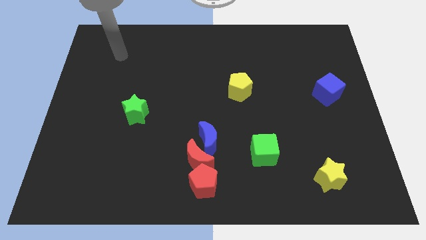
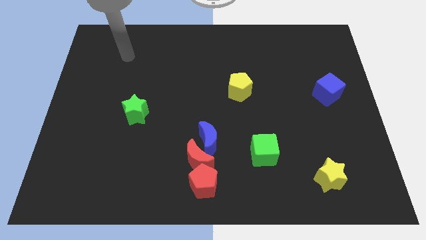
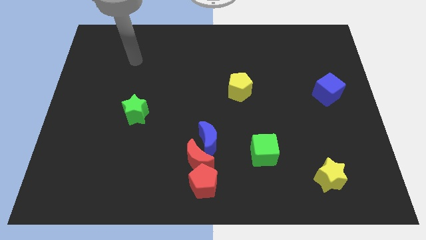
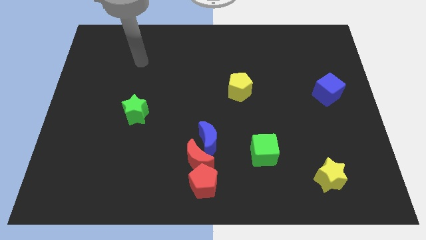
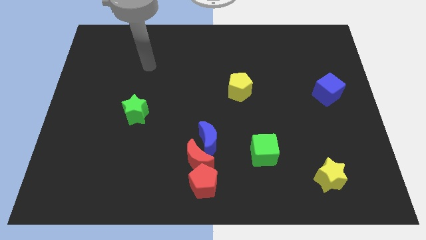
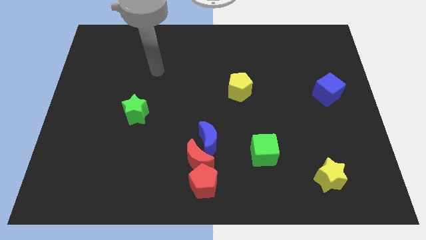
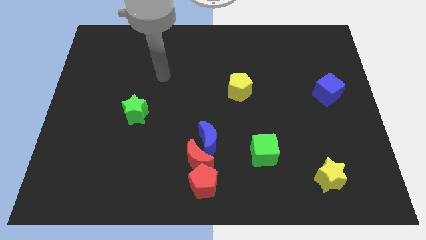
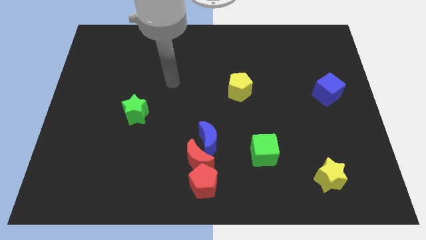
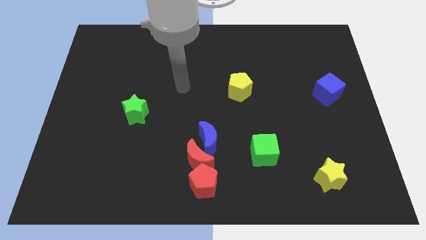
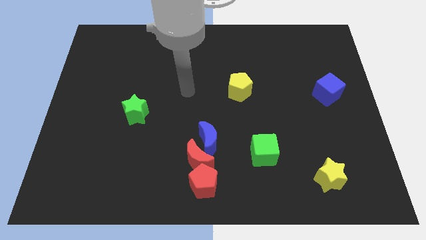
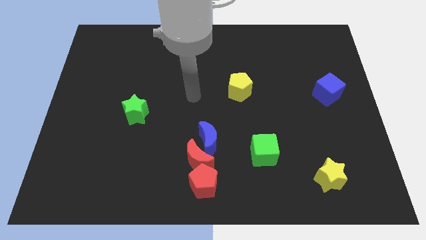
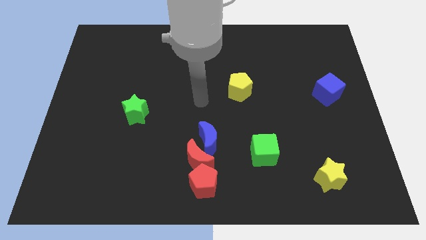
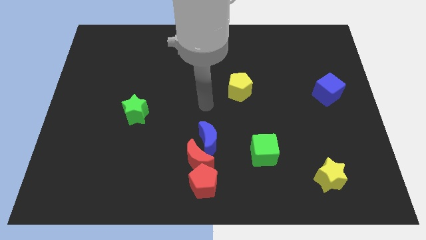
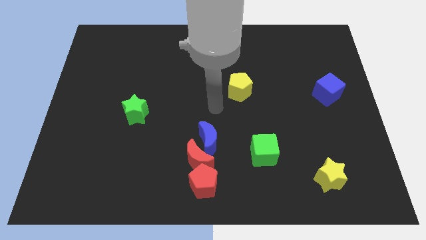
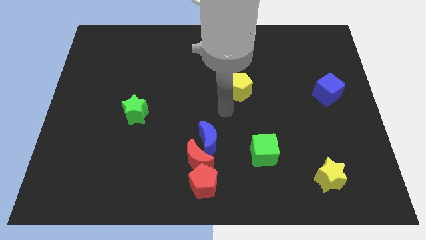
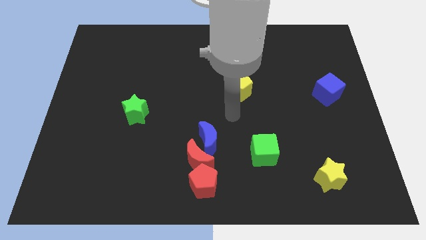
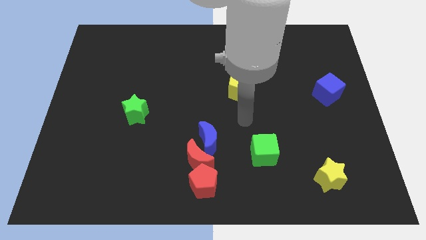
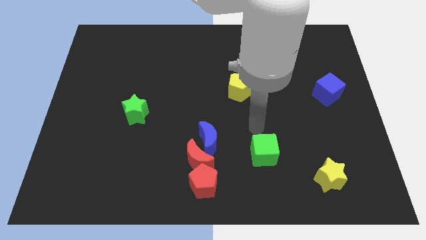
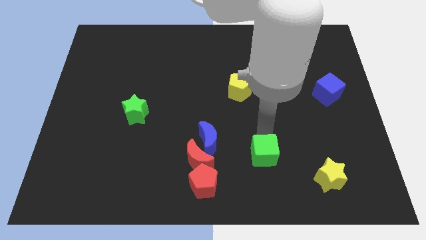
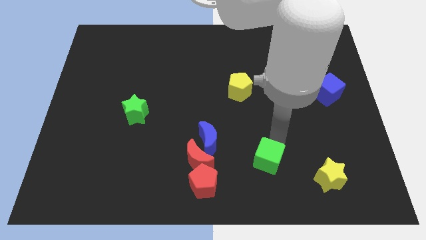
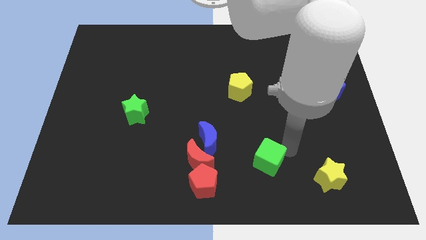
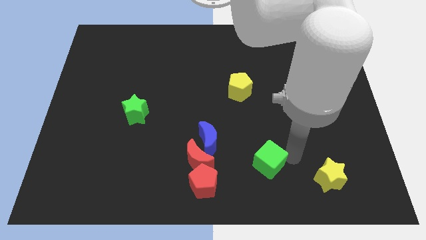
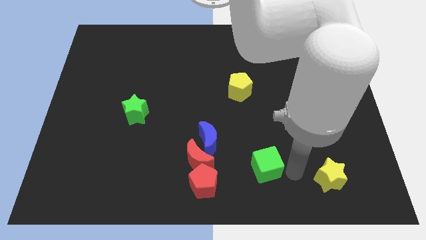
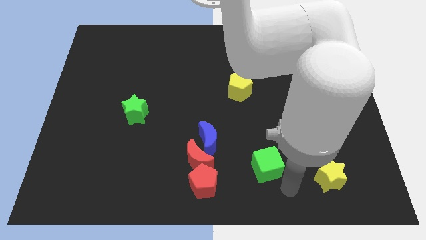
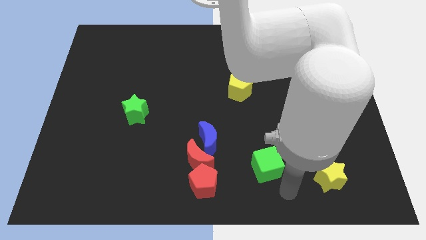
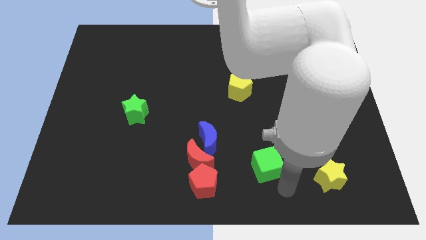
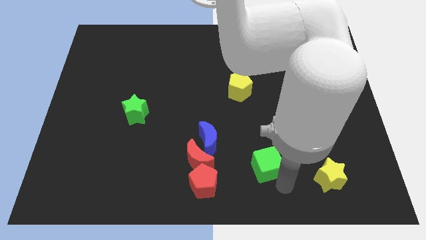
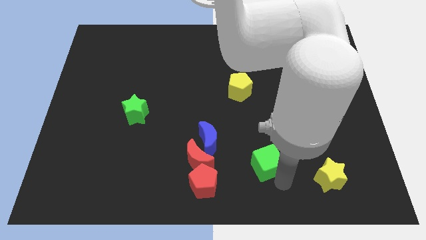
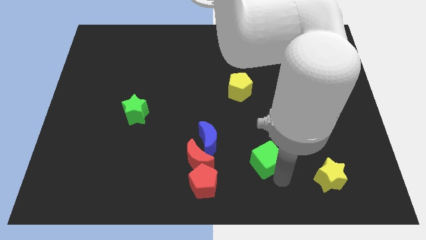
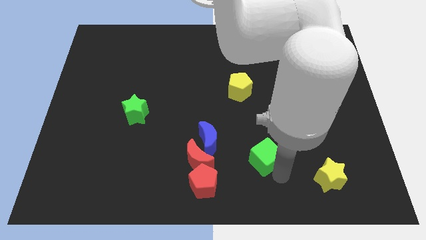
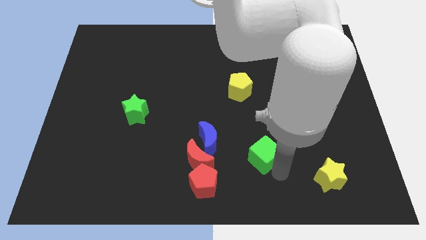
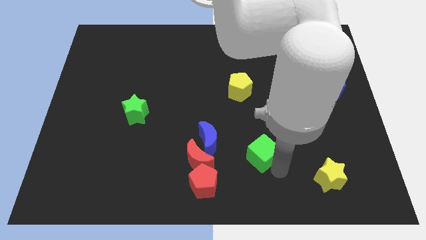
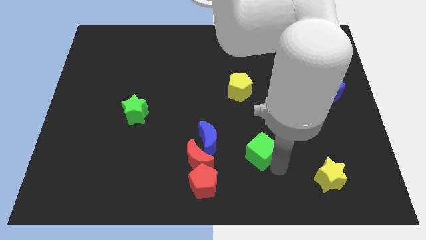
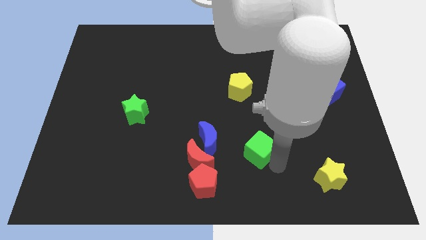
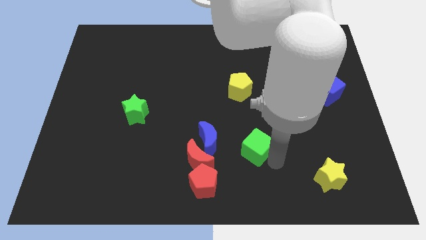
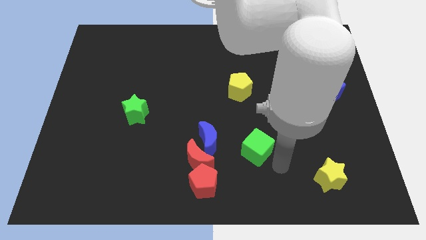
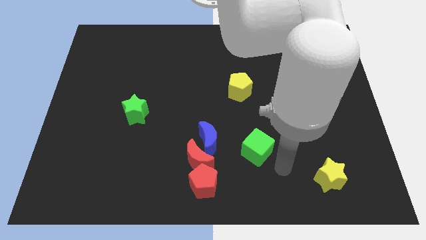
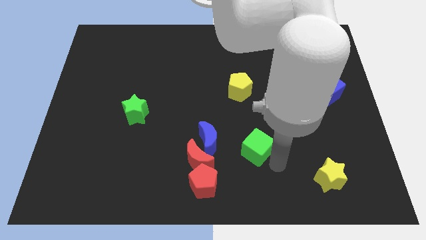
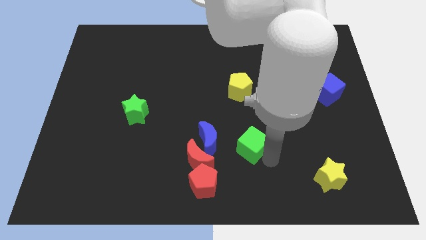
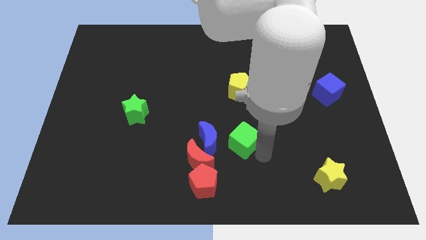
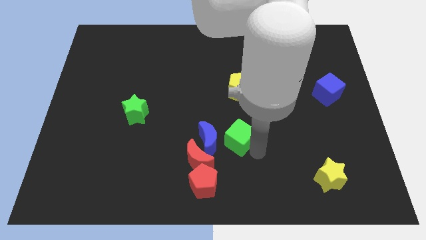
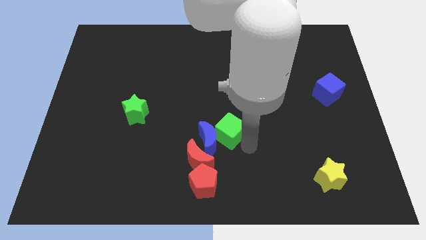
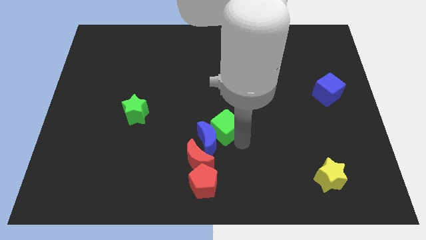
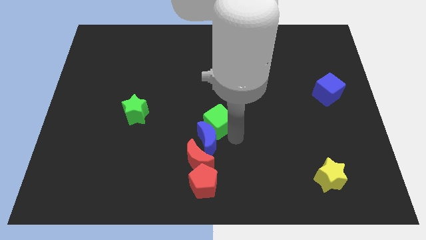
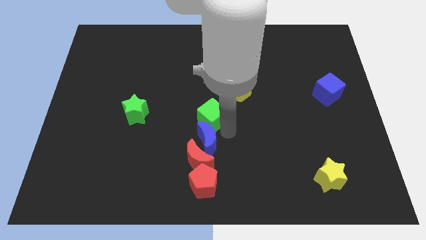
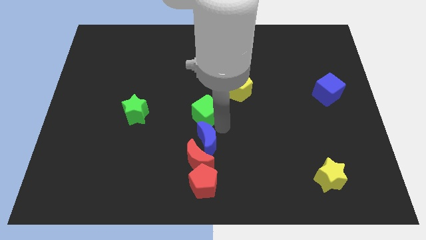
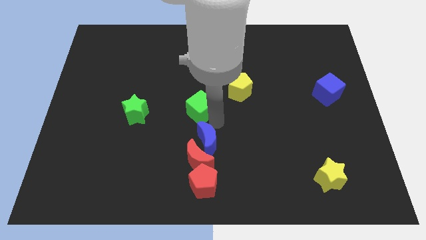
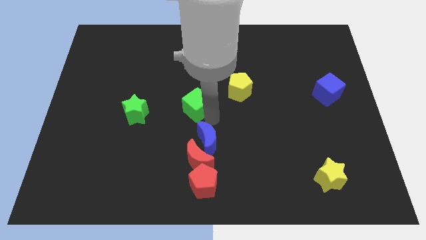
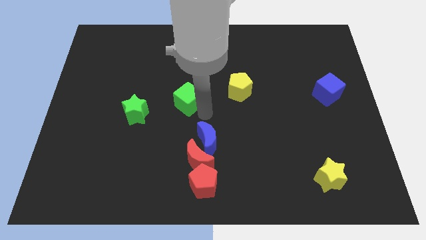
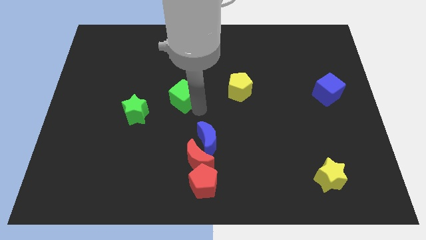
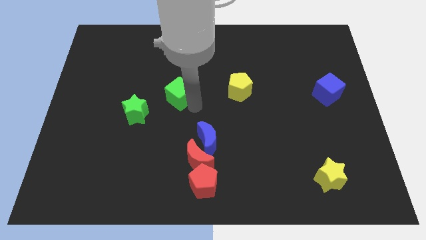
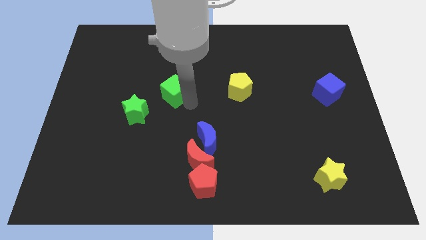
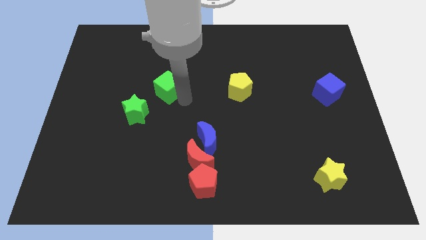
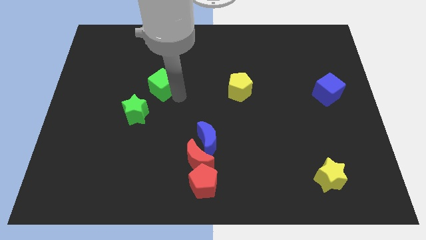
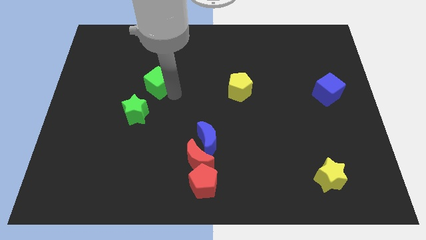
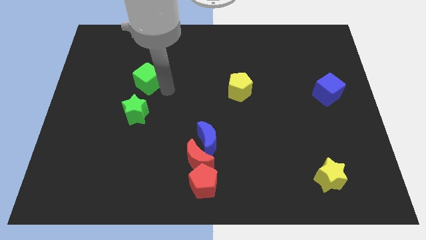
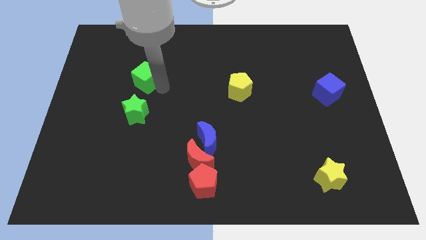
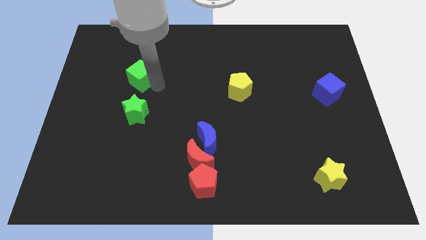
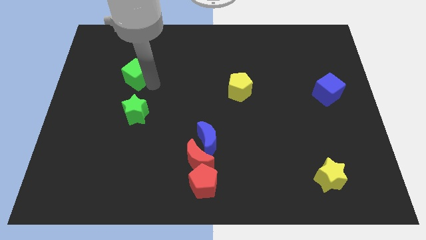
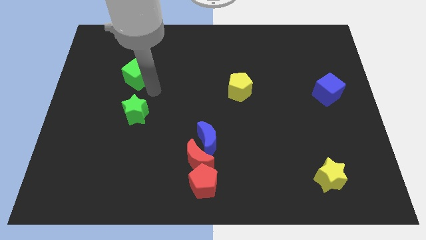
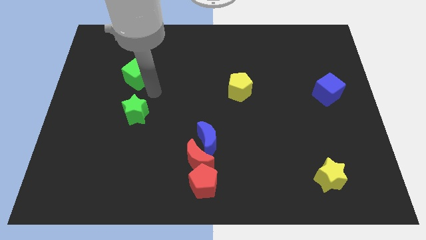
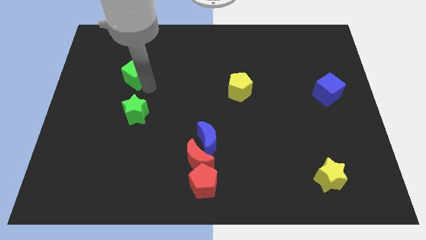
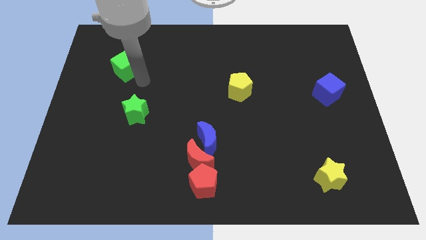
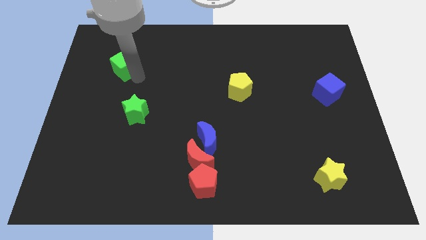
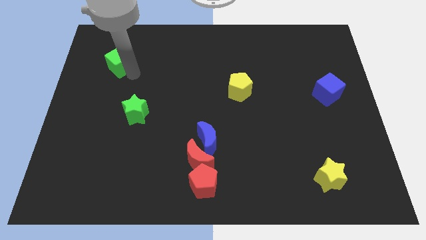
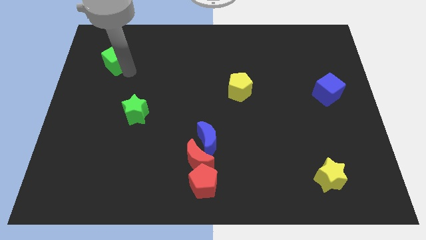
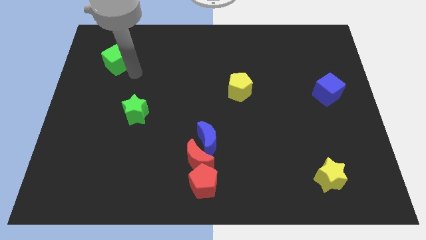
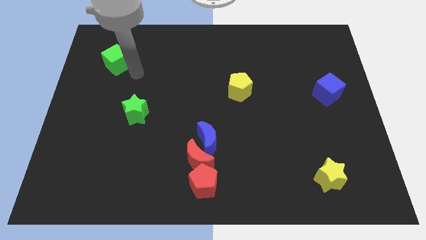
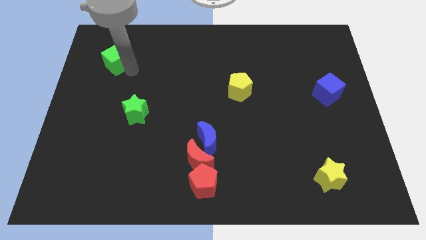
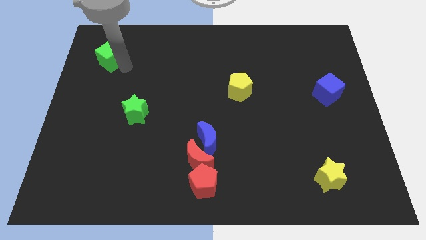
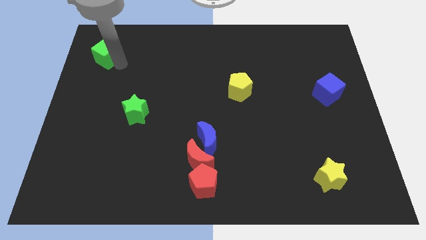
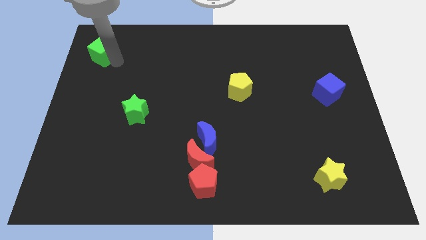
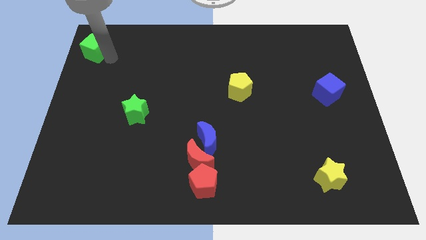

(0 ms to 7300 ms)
push the green cube to the top left
